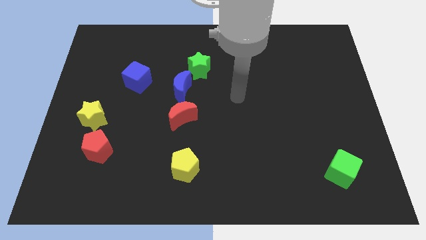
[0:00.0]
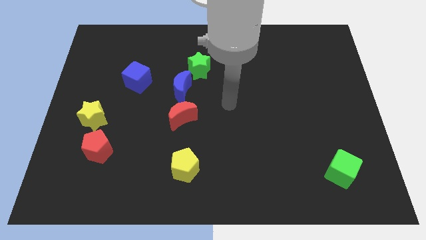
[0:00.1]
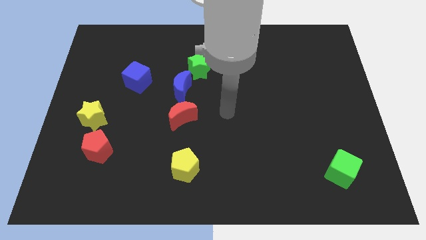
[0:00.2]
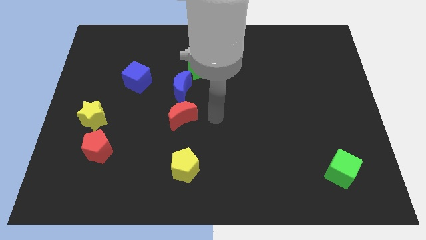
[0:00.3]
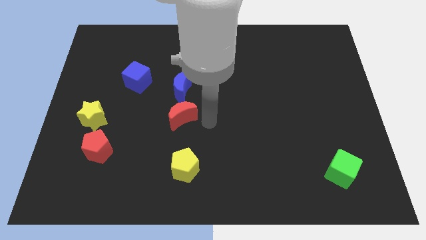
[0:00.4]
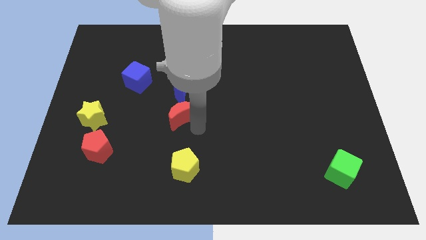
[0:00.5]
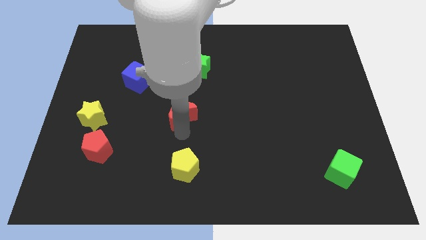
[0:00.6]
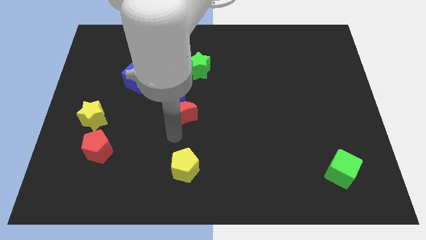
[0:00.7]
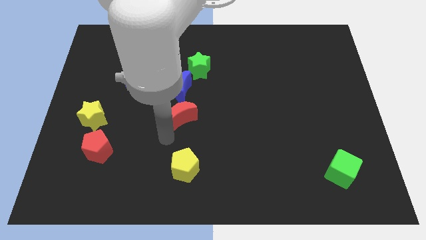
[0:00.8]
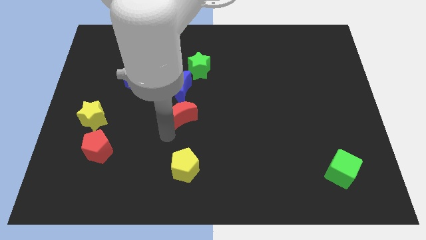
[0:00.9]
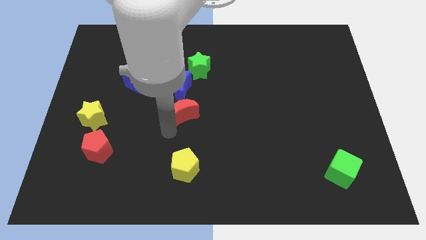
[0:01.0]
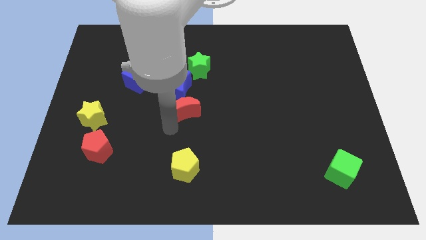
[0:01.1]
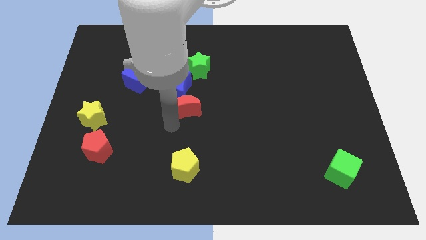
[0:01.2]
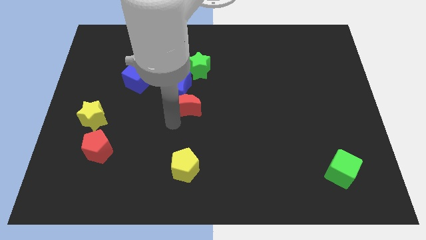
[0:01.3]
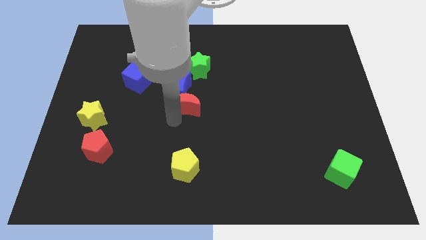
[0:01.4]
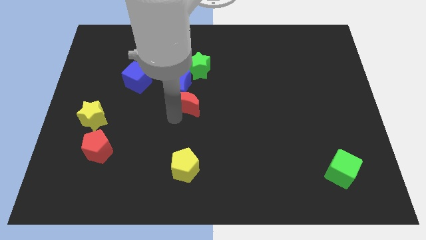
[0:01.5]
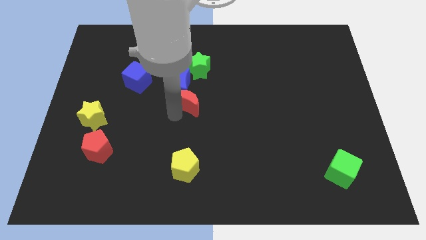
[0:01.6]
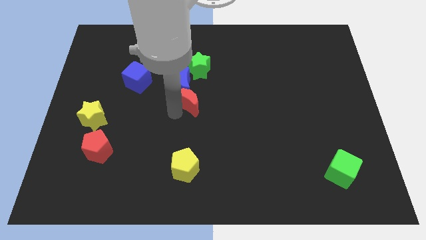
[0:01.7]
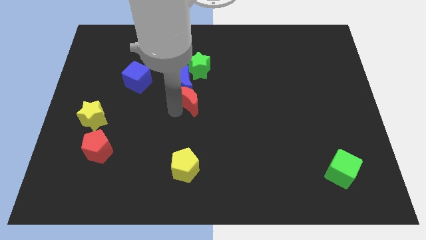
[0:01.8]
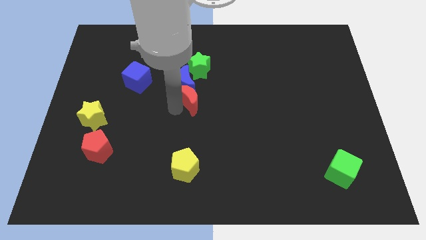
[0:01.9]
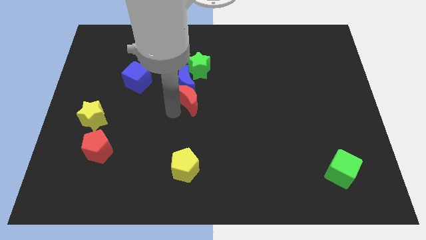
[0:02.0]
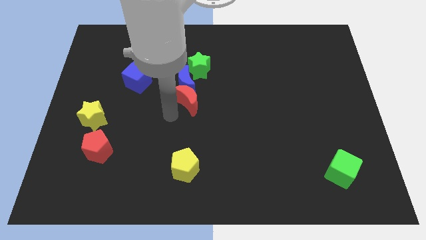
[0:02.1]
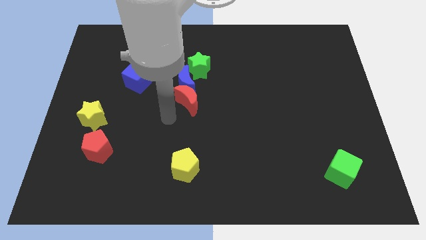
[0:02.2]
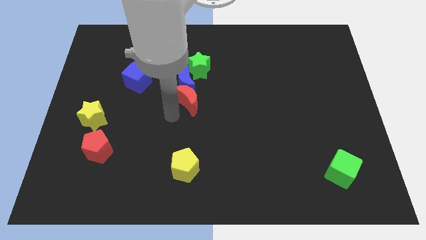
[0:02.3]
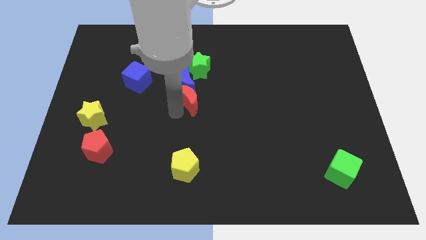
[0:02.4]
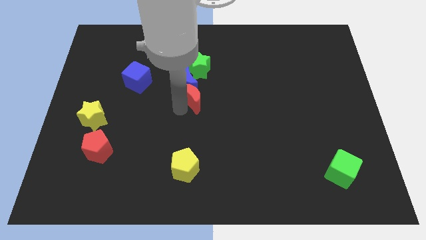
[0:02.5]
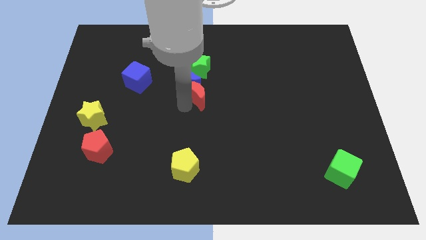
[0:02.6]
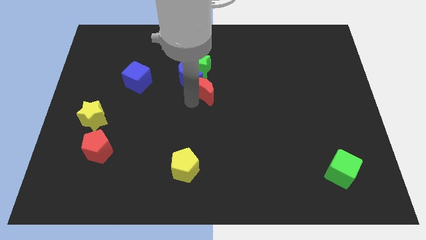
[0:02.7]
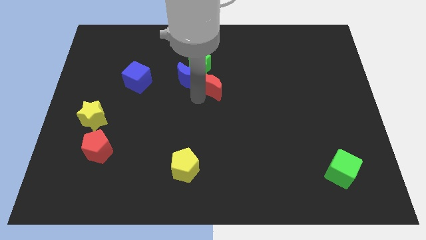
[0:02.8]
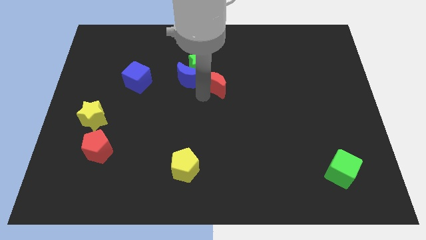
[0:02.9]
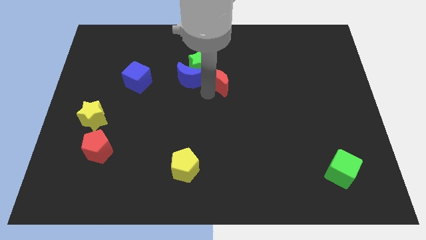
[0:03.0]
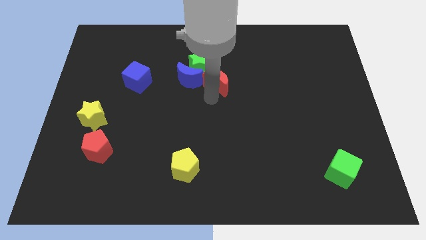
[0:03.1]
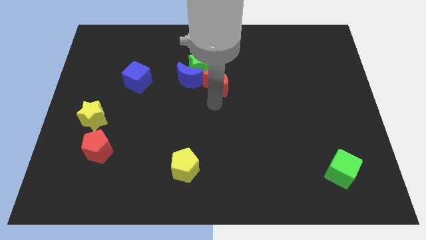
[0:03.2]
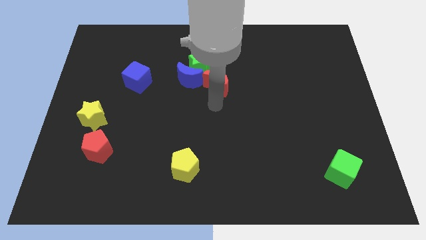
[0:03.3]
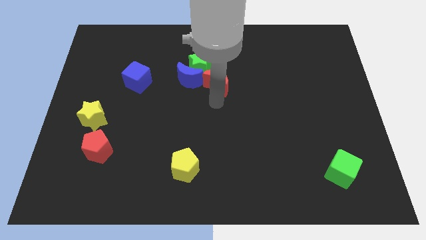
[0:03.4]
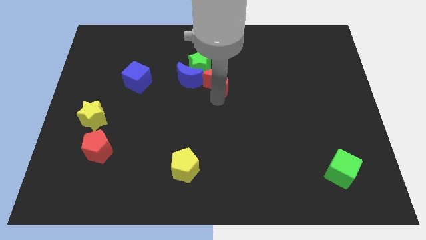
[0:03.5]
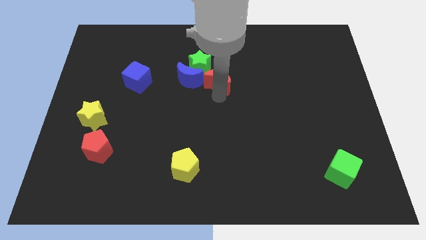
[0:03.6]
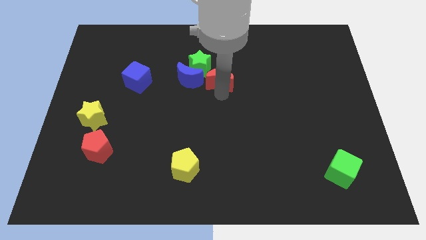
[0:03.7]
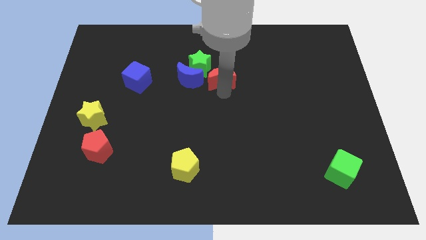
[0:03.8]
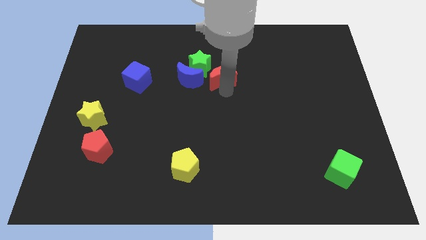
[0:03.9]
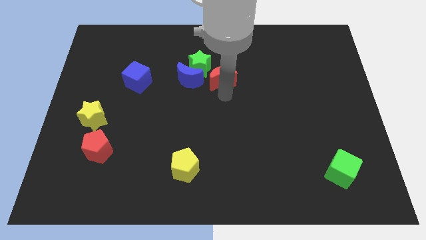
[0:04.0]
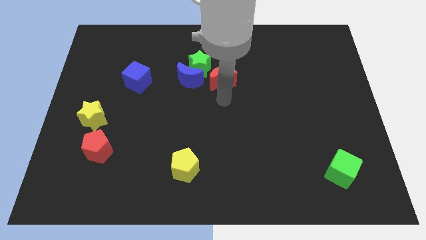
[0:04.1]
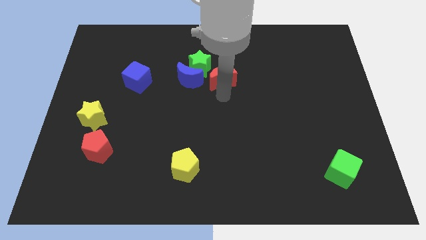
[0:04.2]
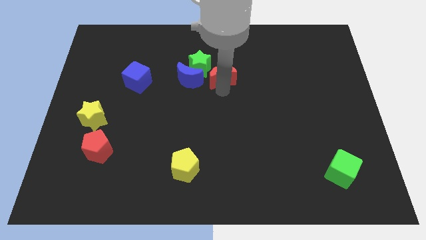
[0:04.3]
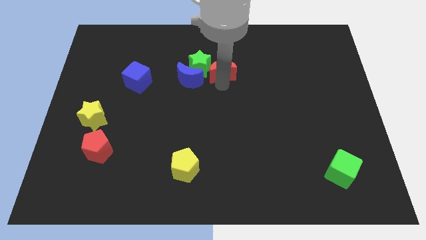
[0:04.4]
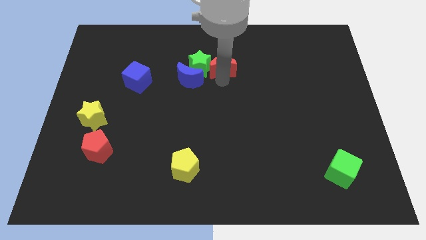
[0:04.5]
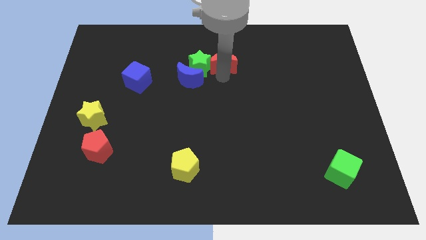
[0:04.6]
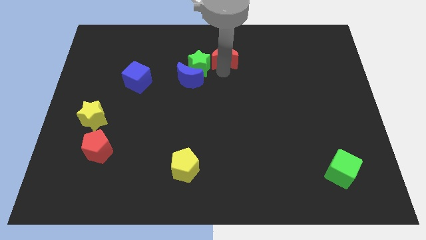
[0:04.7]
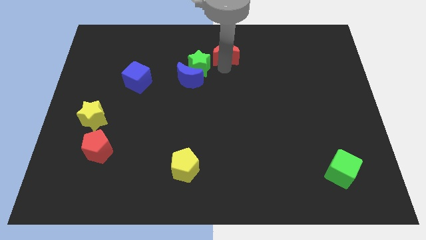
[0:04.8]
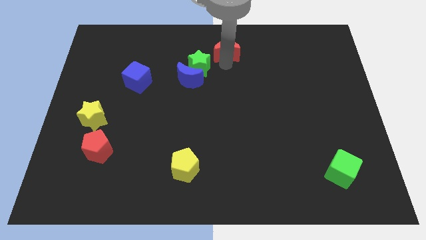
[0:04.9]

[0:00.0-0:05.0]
put the red moon to the top

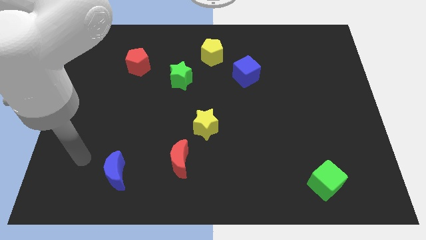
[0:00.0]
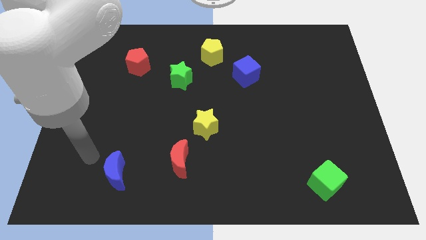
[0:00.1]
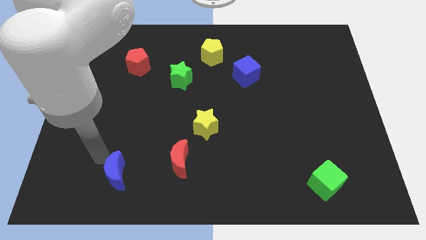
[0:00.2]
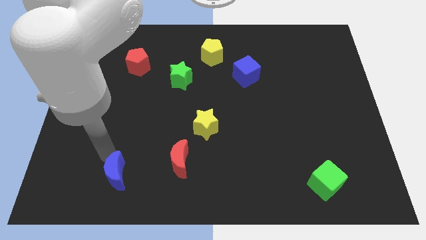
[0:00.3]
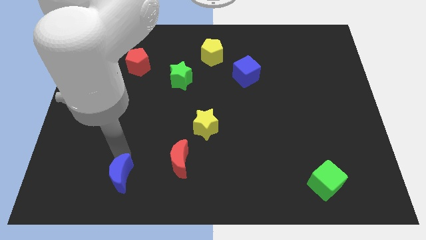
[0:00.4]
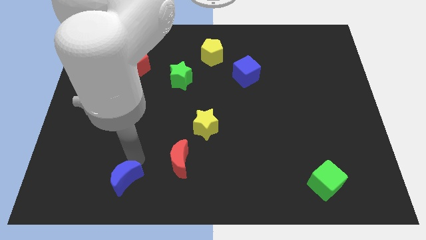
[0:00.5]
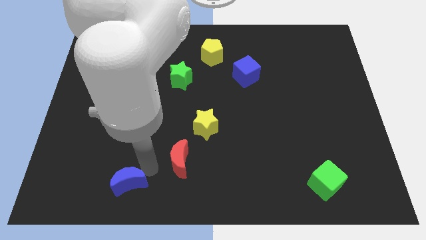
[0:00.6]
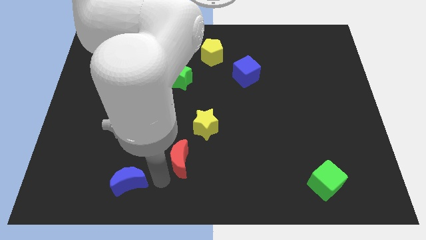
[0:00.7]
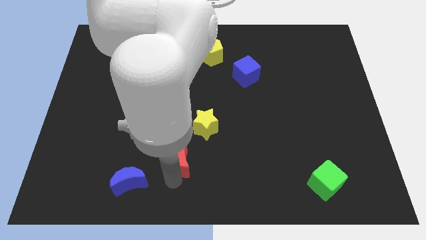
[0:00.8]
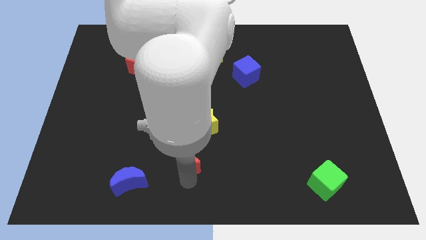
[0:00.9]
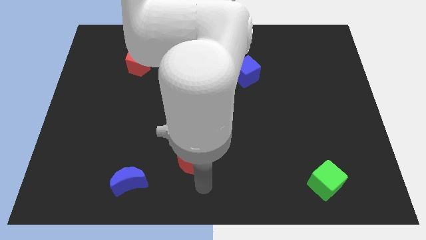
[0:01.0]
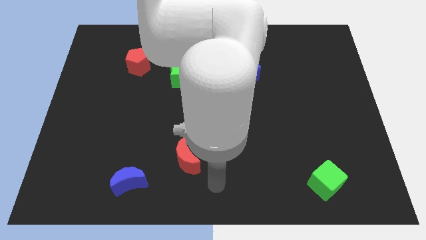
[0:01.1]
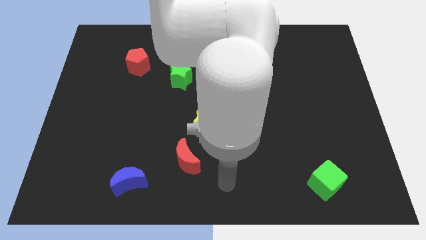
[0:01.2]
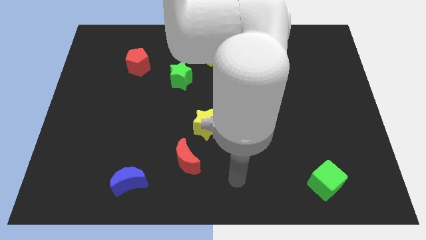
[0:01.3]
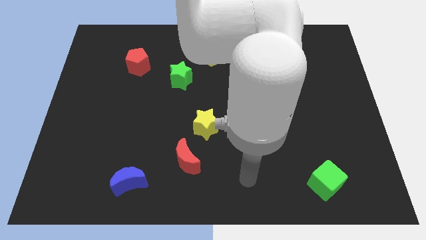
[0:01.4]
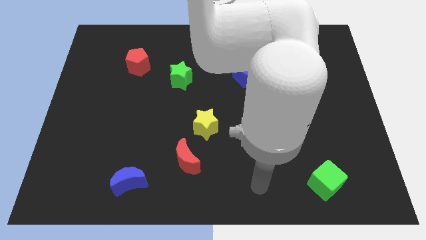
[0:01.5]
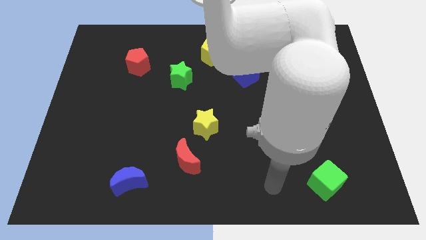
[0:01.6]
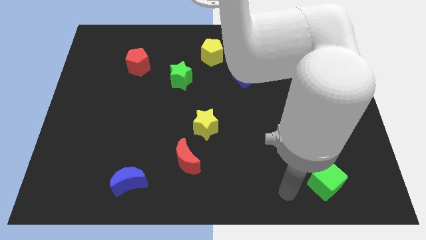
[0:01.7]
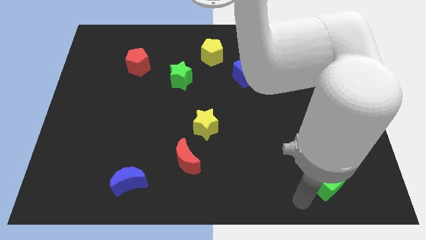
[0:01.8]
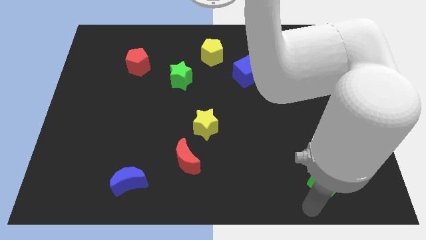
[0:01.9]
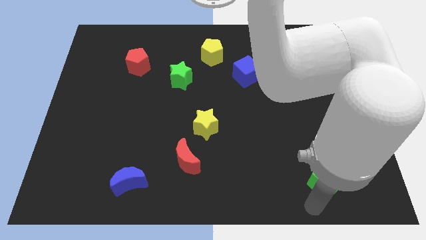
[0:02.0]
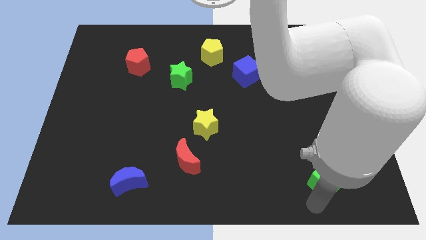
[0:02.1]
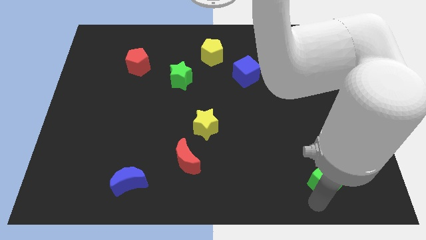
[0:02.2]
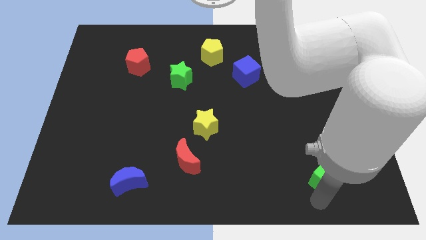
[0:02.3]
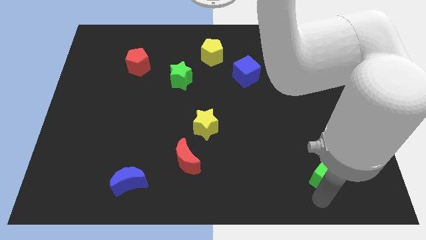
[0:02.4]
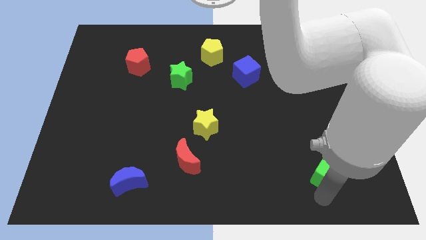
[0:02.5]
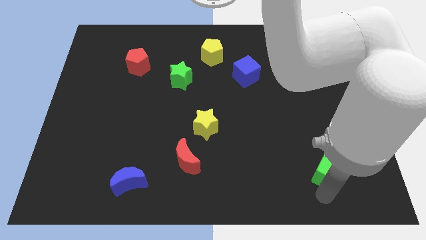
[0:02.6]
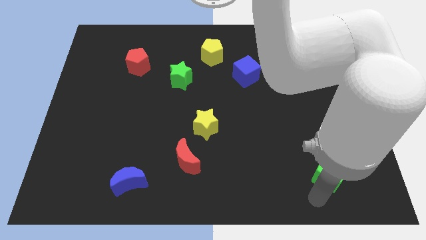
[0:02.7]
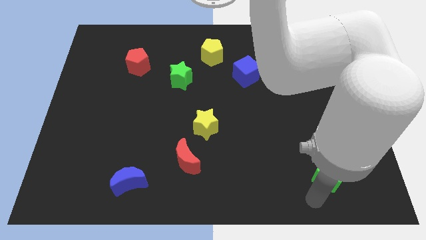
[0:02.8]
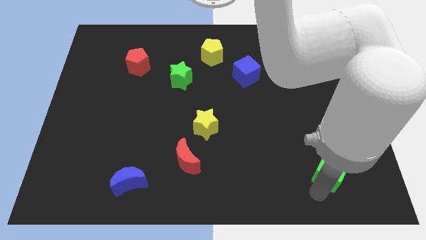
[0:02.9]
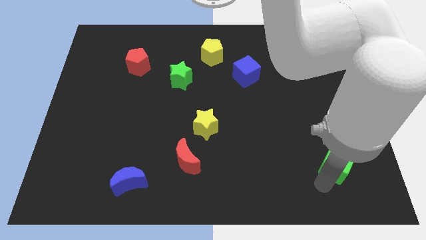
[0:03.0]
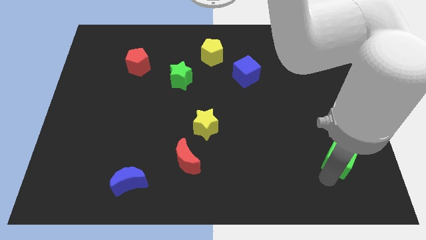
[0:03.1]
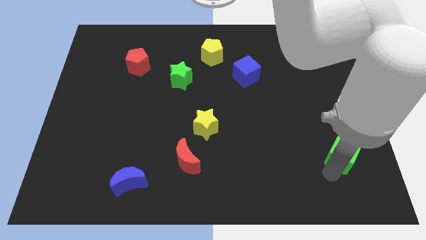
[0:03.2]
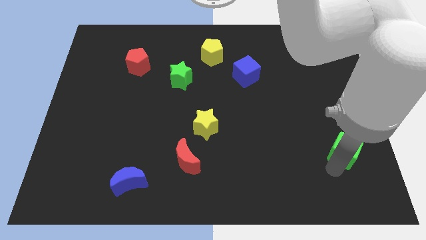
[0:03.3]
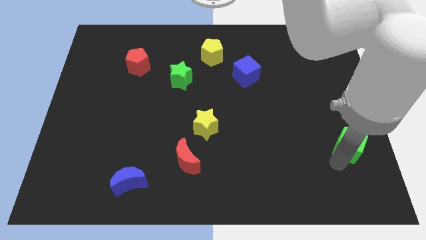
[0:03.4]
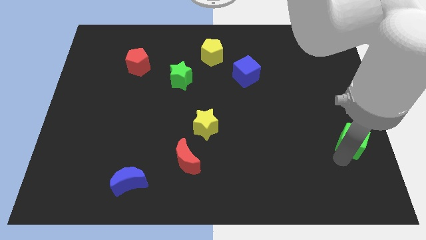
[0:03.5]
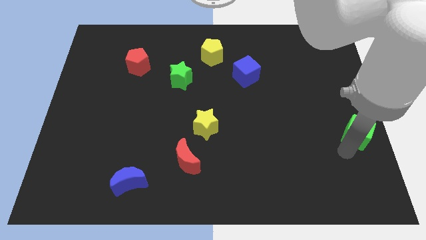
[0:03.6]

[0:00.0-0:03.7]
push the green cube to the right side of the board
